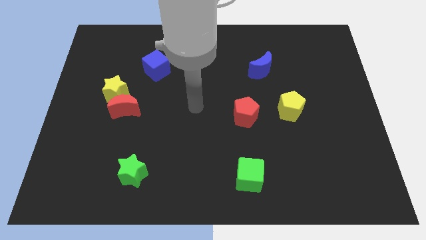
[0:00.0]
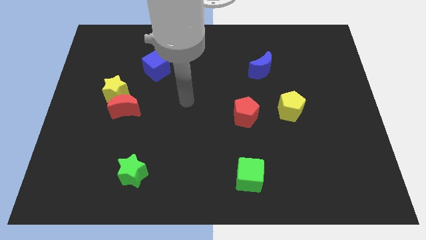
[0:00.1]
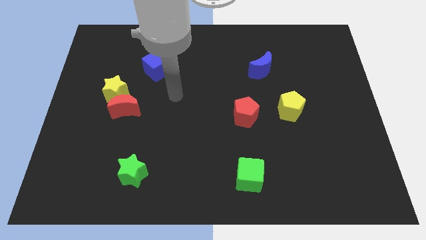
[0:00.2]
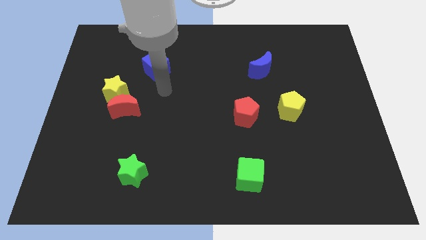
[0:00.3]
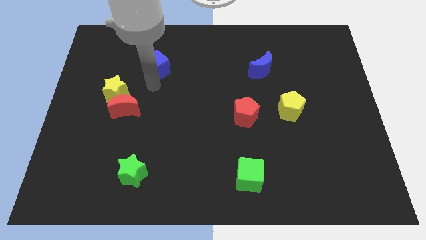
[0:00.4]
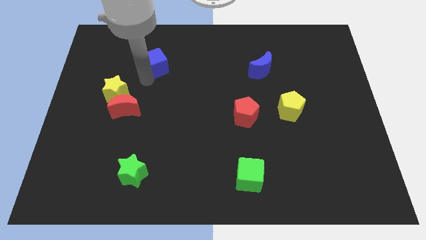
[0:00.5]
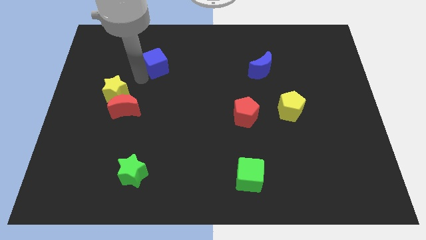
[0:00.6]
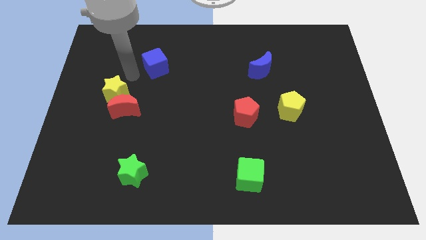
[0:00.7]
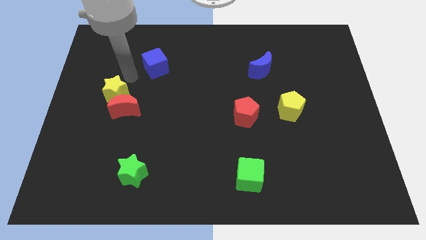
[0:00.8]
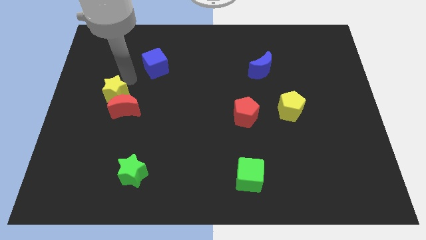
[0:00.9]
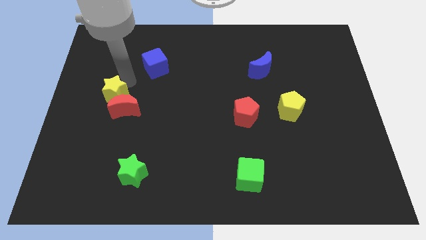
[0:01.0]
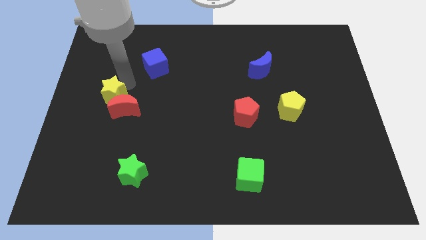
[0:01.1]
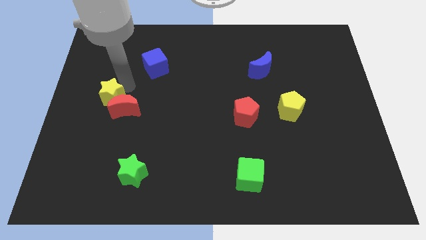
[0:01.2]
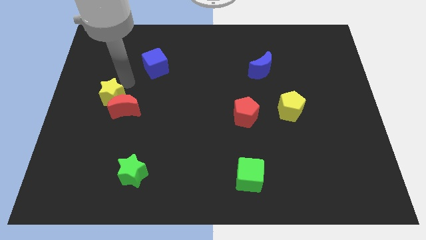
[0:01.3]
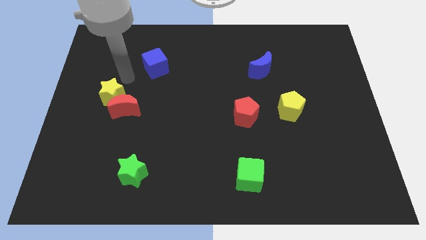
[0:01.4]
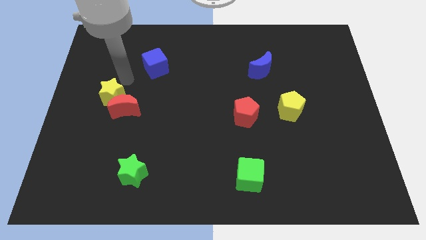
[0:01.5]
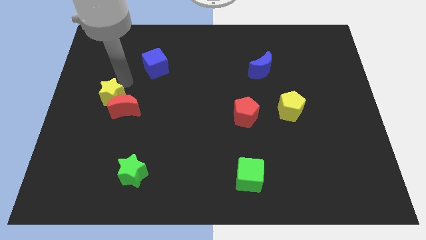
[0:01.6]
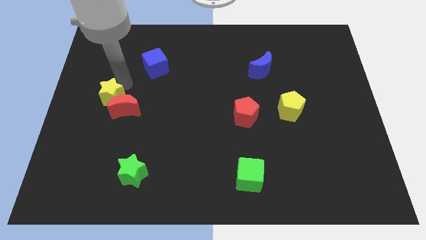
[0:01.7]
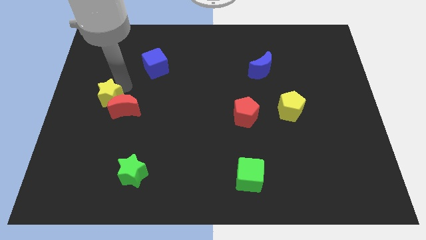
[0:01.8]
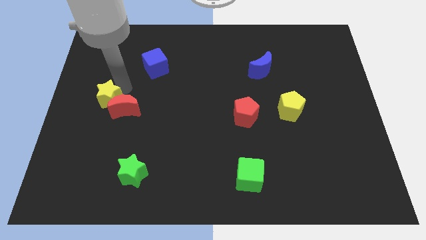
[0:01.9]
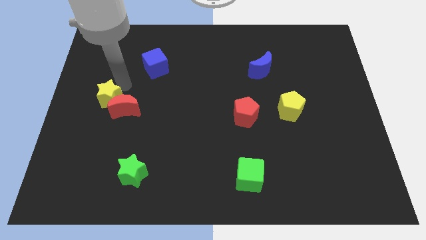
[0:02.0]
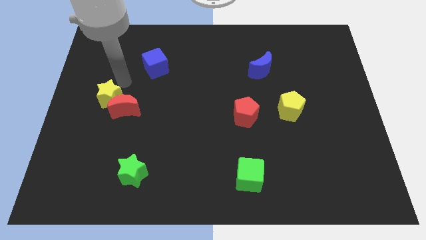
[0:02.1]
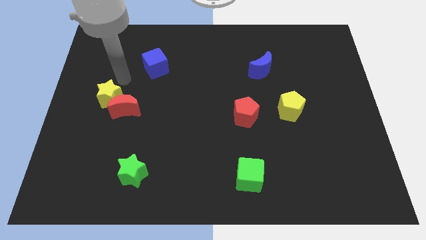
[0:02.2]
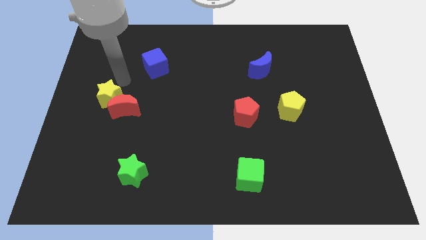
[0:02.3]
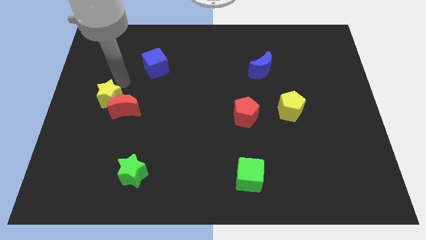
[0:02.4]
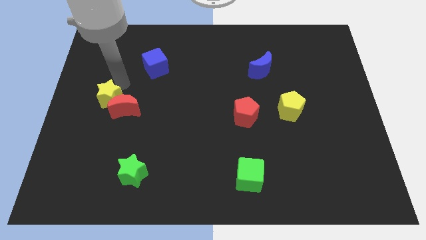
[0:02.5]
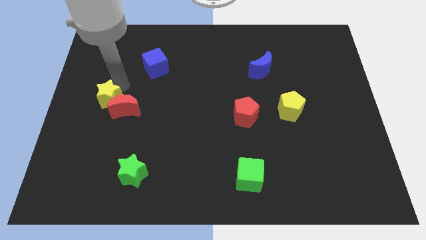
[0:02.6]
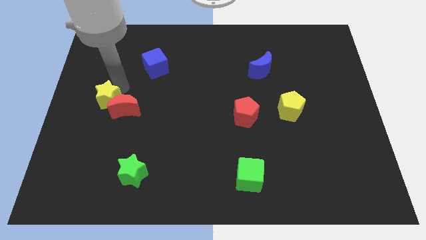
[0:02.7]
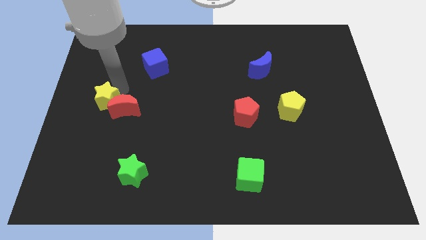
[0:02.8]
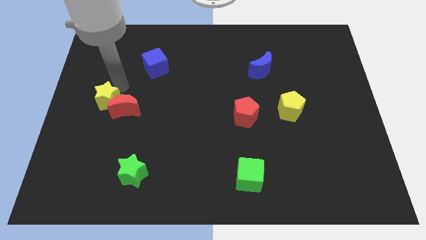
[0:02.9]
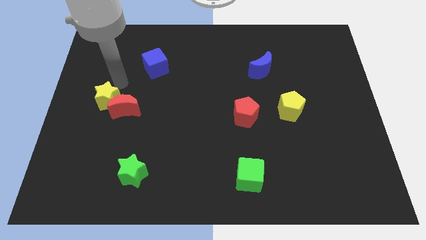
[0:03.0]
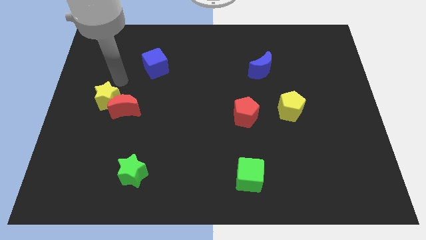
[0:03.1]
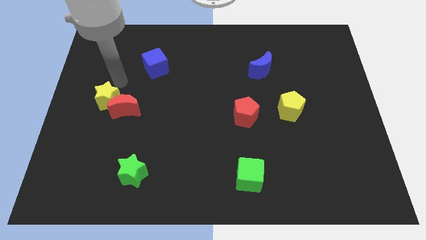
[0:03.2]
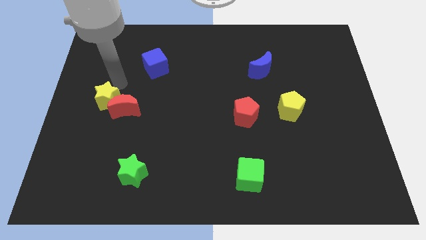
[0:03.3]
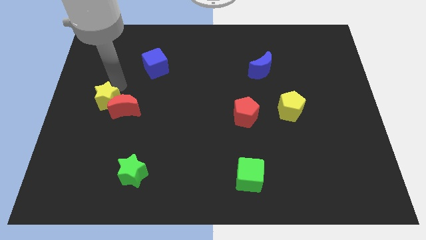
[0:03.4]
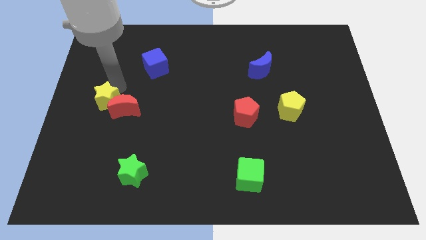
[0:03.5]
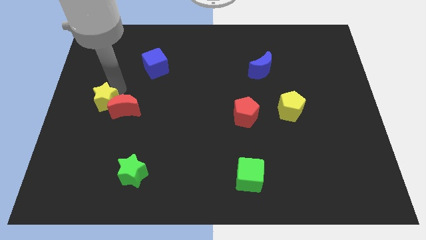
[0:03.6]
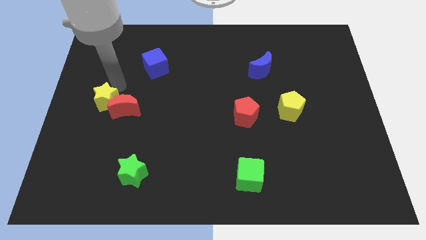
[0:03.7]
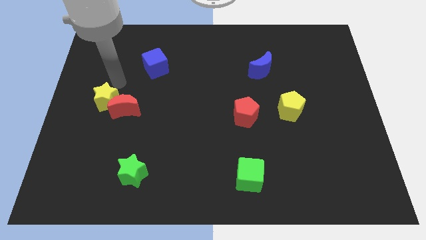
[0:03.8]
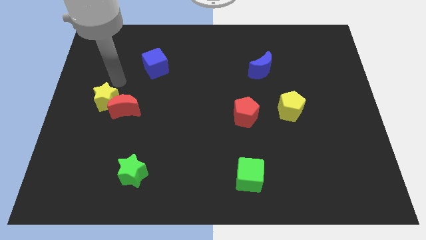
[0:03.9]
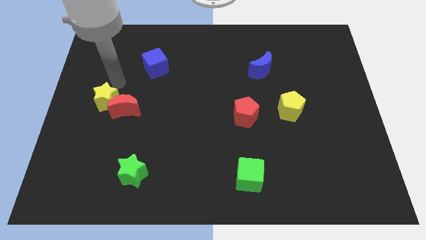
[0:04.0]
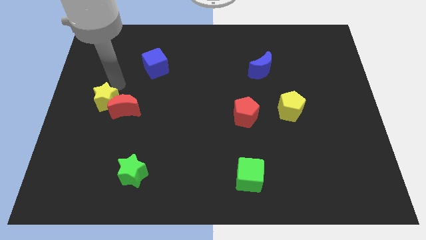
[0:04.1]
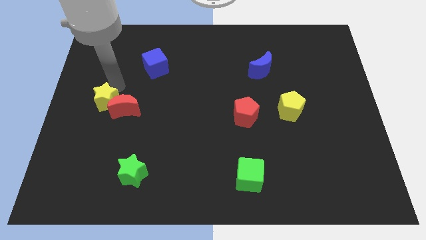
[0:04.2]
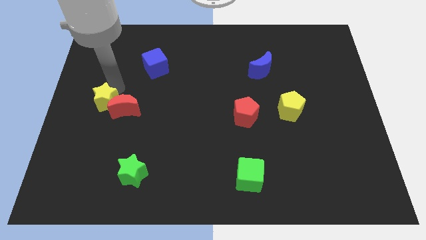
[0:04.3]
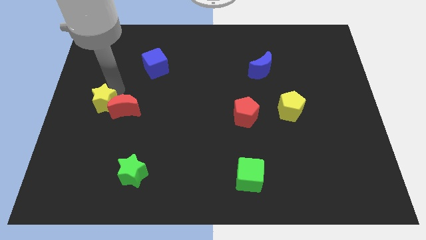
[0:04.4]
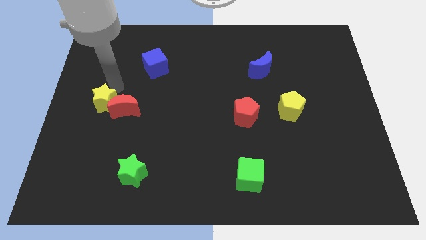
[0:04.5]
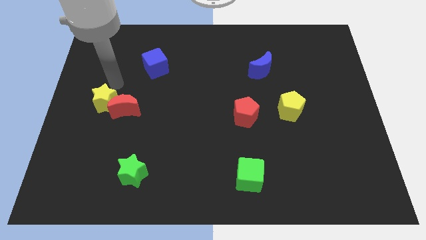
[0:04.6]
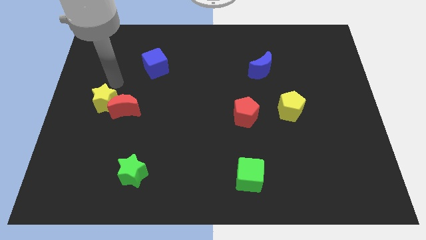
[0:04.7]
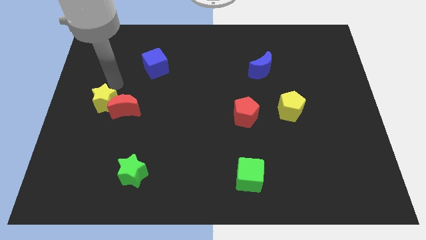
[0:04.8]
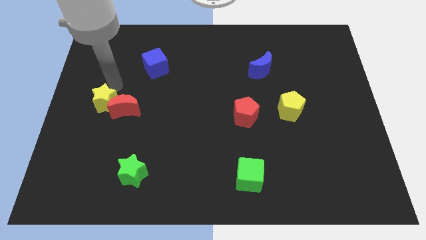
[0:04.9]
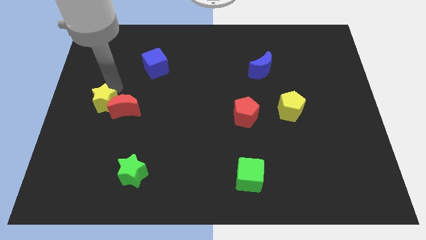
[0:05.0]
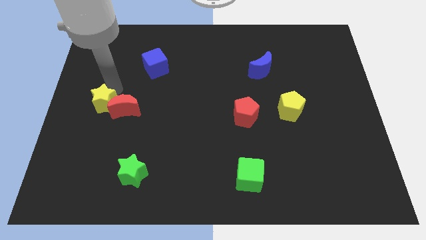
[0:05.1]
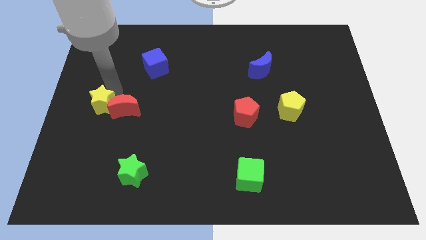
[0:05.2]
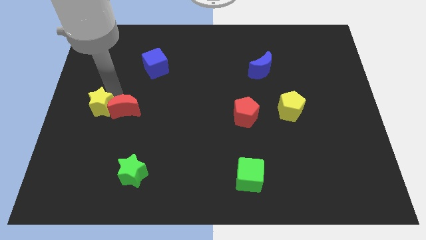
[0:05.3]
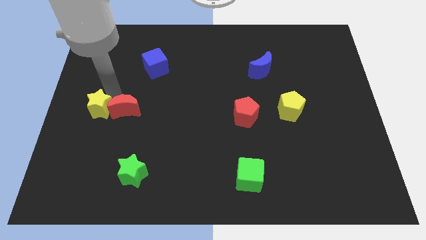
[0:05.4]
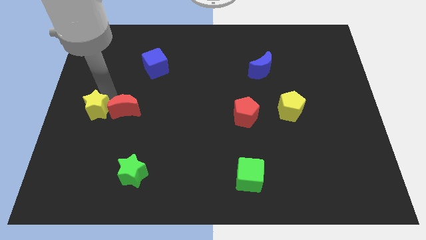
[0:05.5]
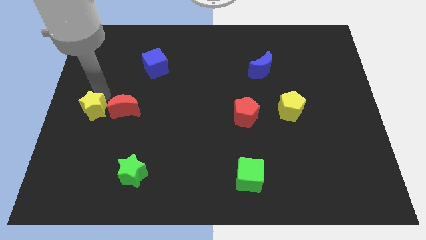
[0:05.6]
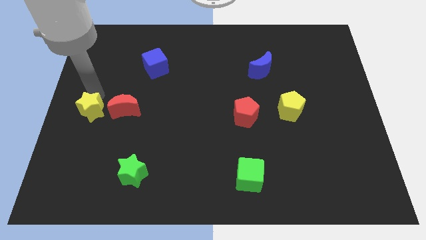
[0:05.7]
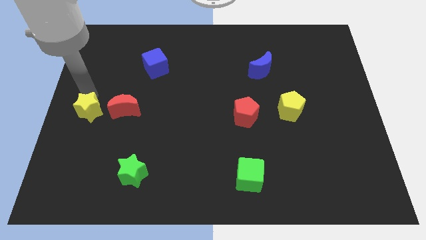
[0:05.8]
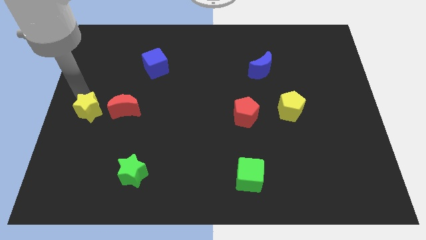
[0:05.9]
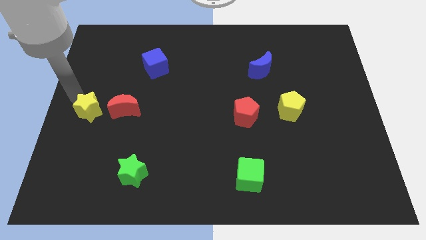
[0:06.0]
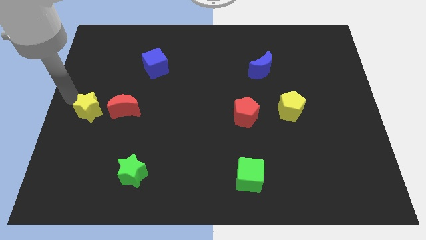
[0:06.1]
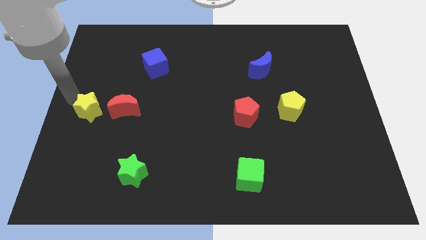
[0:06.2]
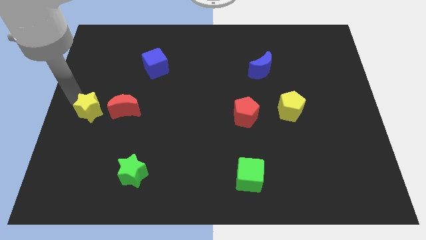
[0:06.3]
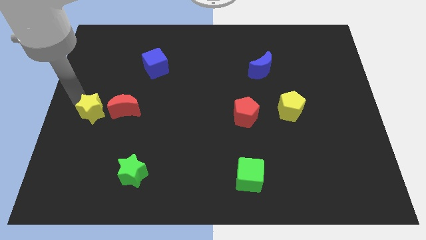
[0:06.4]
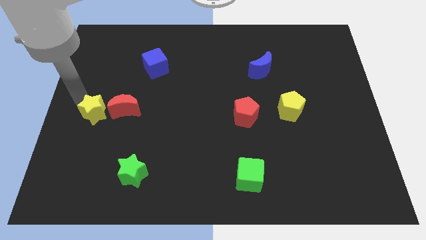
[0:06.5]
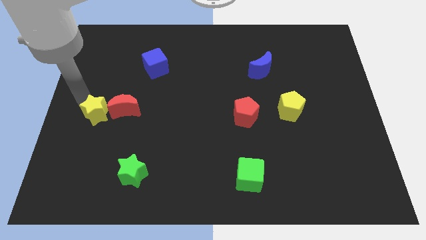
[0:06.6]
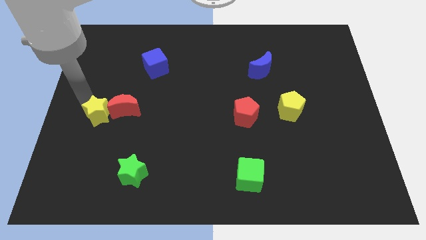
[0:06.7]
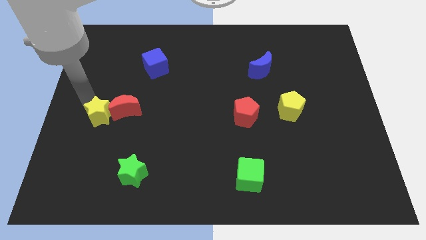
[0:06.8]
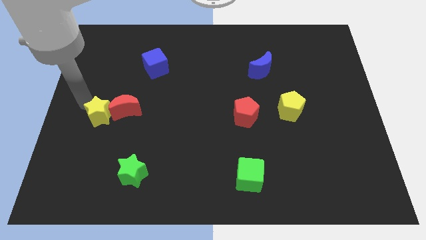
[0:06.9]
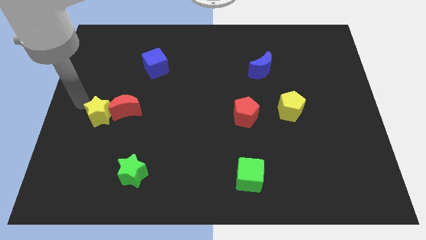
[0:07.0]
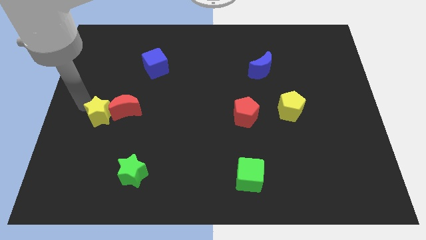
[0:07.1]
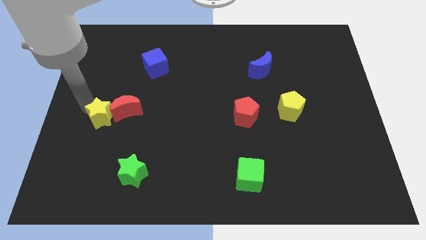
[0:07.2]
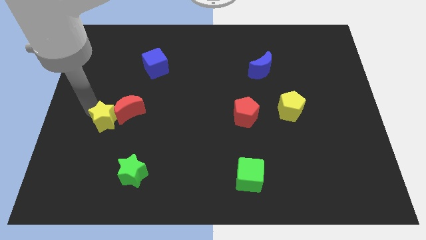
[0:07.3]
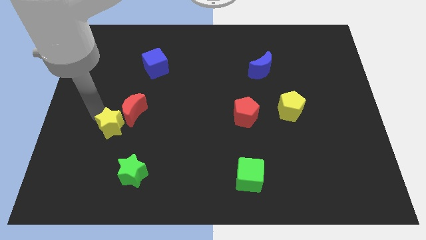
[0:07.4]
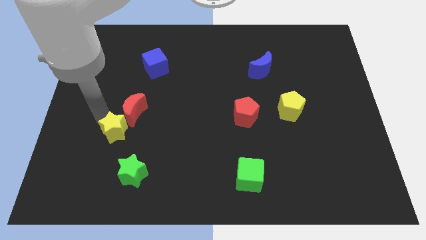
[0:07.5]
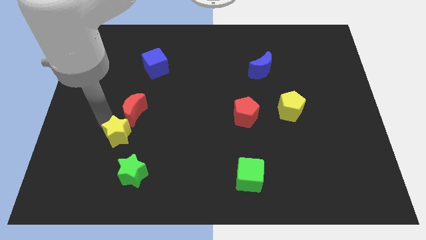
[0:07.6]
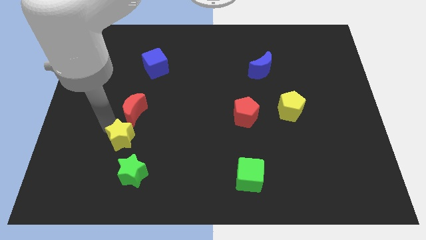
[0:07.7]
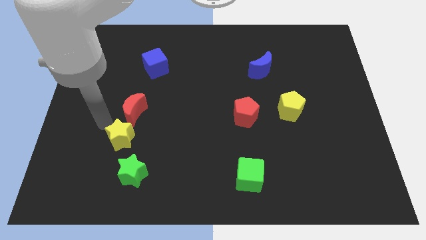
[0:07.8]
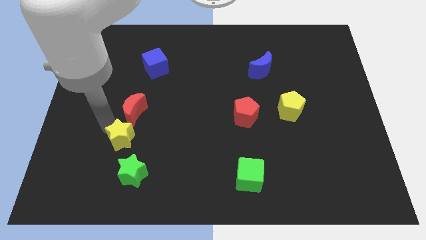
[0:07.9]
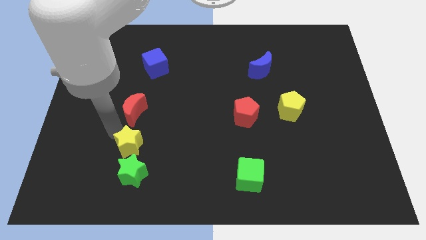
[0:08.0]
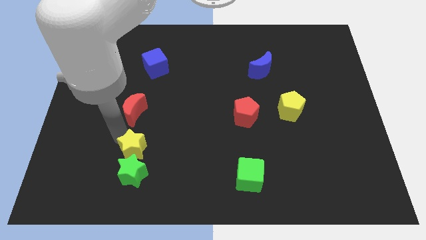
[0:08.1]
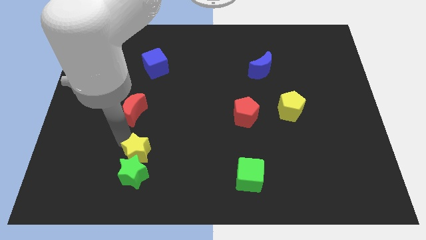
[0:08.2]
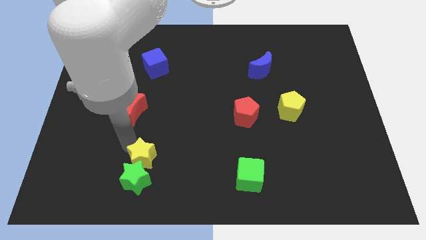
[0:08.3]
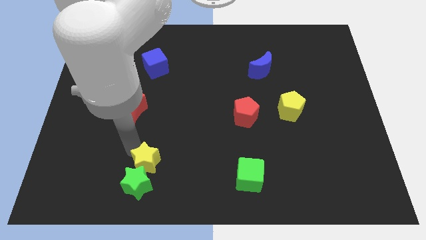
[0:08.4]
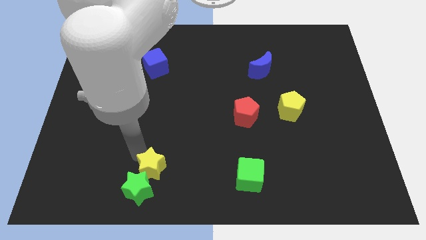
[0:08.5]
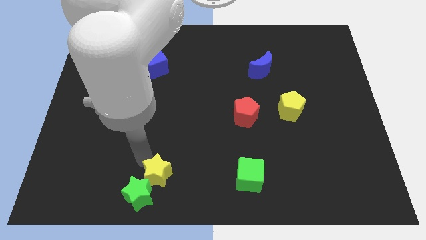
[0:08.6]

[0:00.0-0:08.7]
put the yellow star to the bottom side
